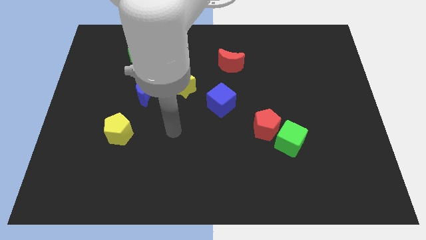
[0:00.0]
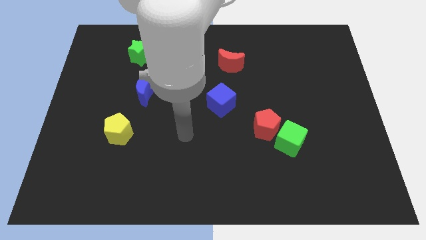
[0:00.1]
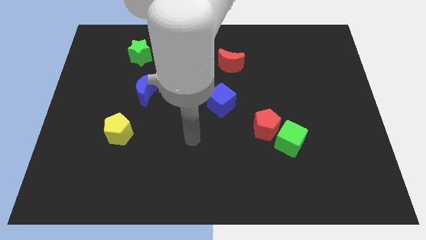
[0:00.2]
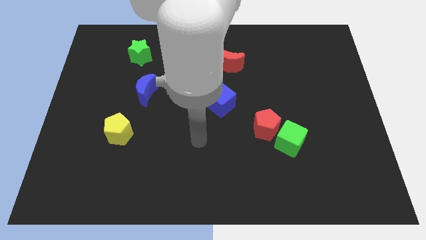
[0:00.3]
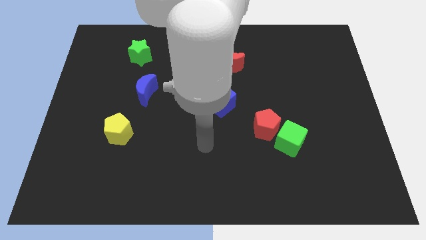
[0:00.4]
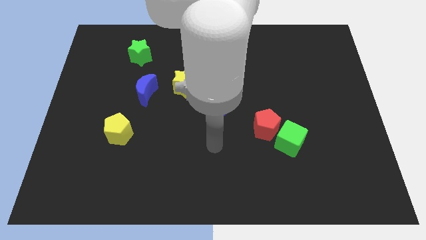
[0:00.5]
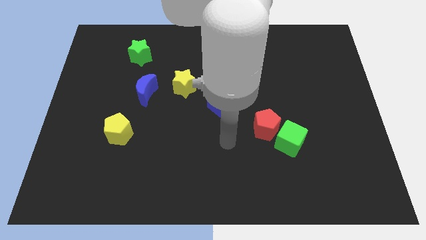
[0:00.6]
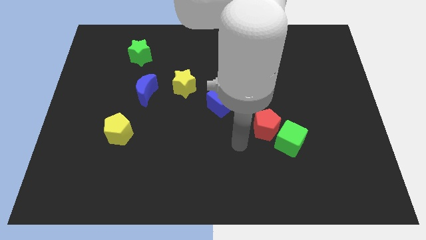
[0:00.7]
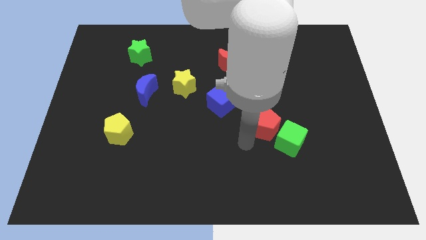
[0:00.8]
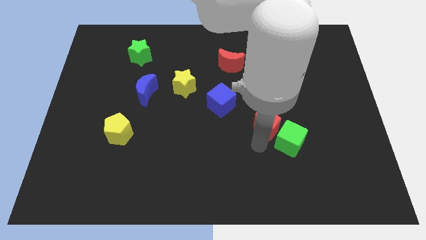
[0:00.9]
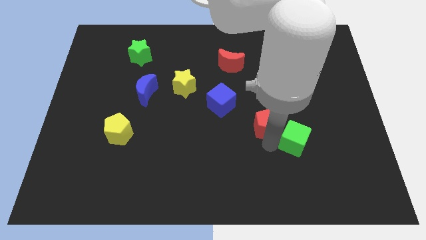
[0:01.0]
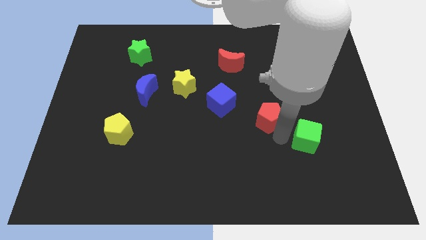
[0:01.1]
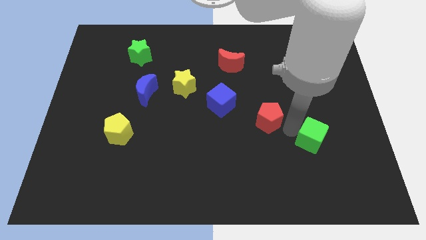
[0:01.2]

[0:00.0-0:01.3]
move the red pentagon away from the green cube

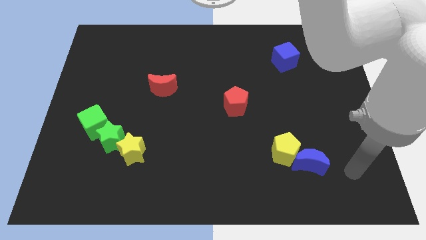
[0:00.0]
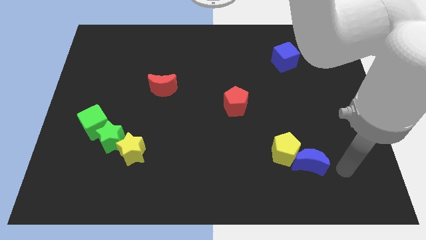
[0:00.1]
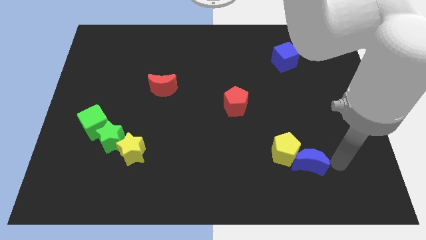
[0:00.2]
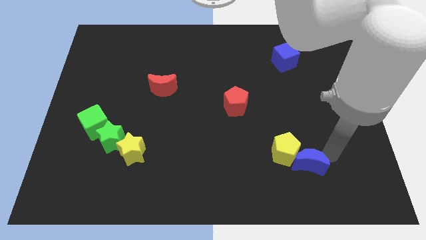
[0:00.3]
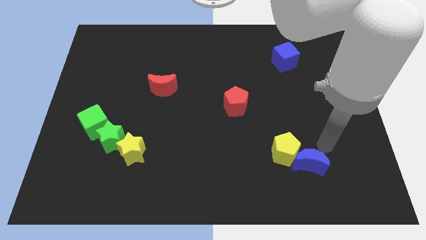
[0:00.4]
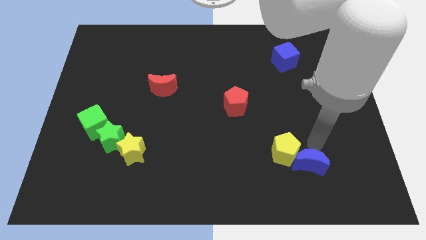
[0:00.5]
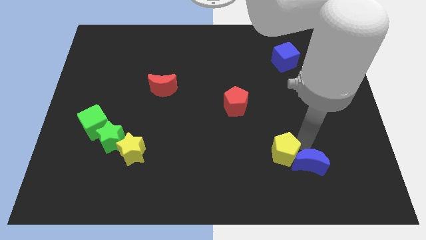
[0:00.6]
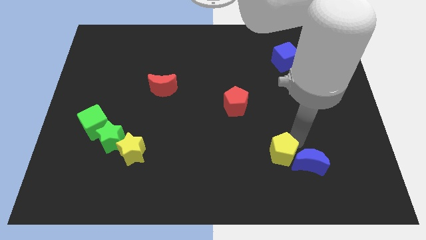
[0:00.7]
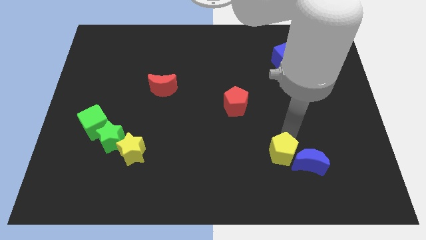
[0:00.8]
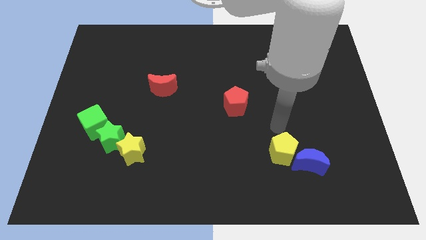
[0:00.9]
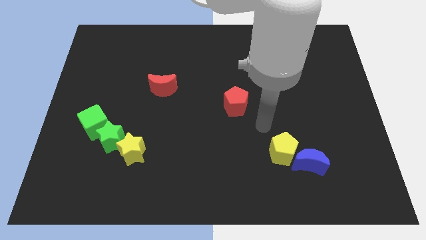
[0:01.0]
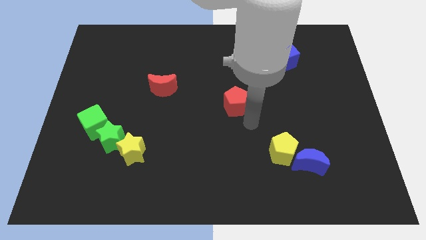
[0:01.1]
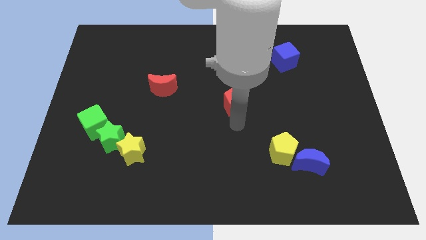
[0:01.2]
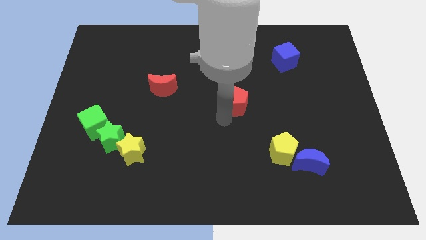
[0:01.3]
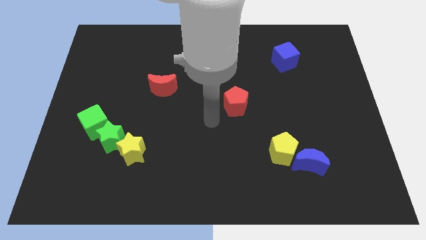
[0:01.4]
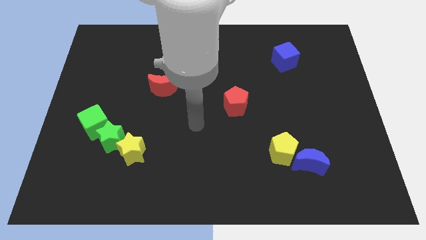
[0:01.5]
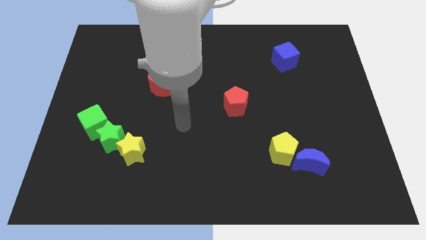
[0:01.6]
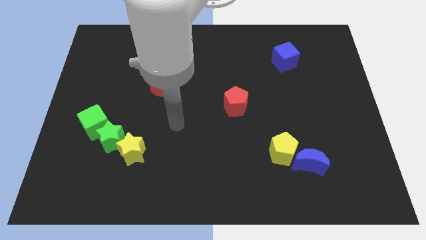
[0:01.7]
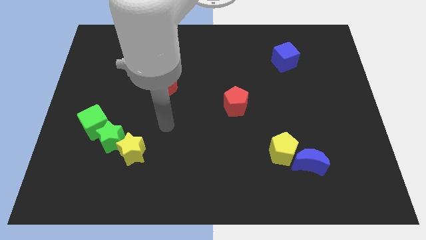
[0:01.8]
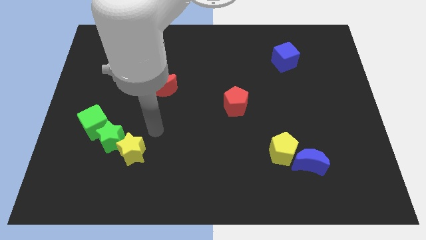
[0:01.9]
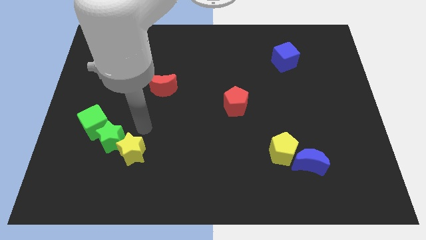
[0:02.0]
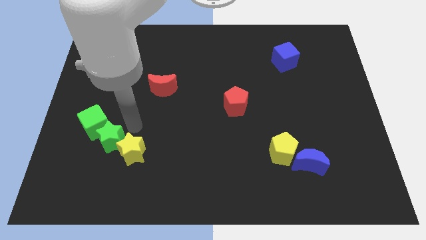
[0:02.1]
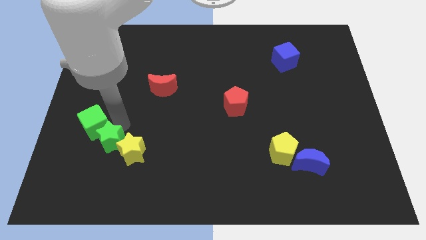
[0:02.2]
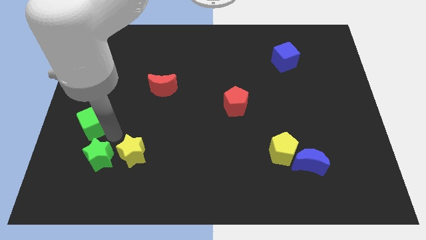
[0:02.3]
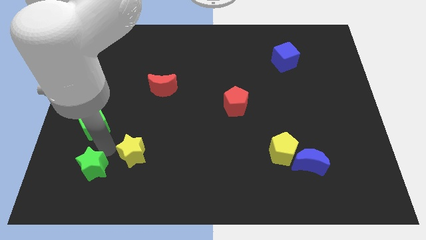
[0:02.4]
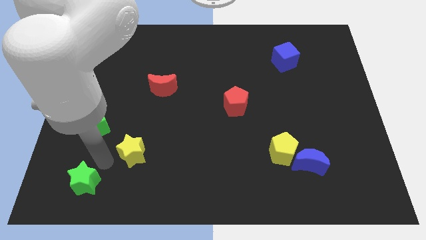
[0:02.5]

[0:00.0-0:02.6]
pull the yellow star apart from the green star

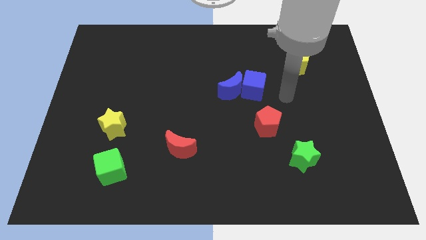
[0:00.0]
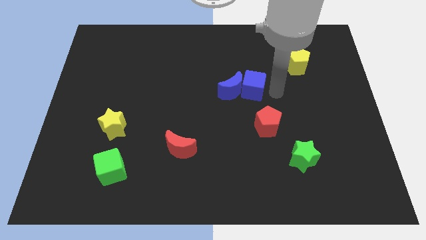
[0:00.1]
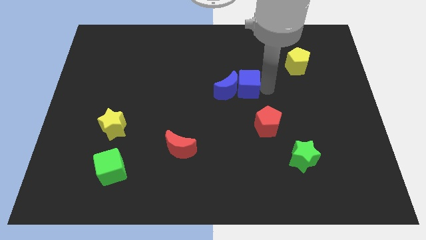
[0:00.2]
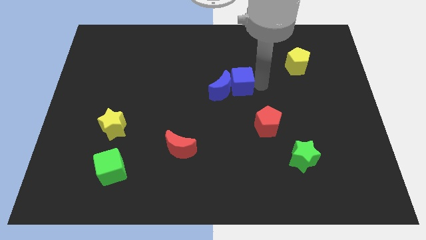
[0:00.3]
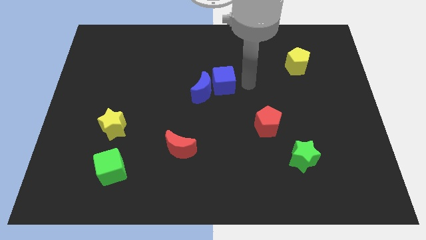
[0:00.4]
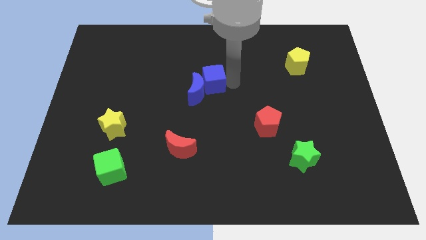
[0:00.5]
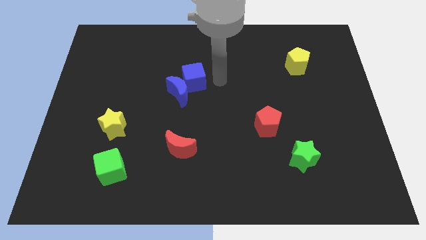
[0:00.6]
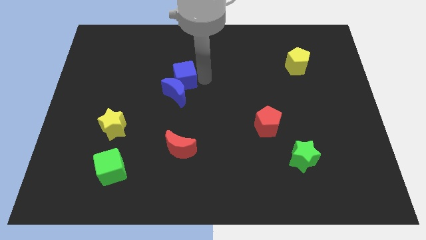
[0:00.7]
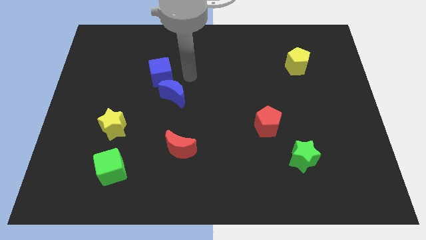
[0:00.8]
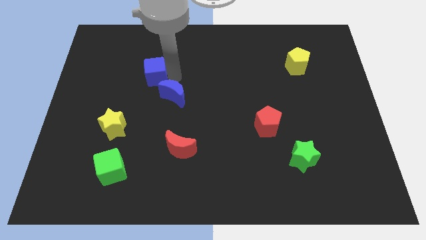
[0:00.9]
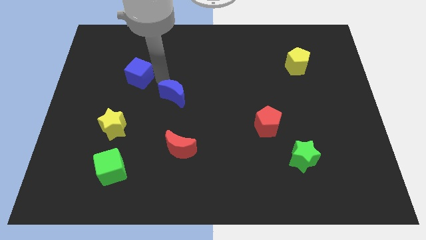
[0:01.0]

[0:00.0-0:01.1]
move the blue moon away from the blue cube

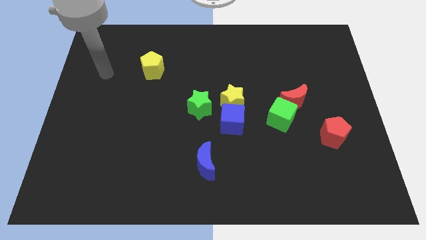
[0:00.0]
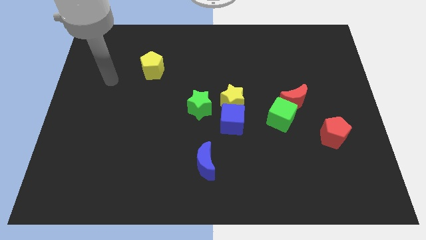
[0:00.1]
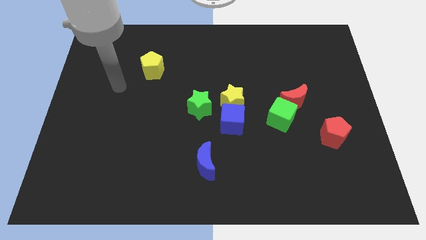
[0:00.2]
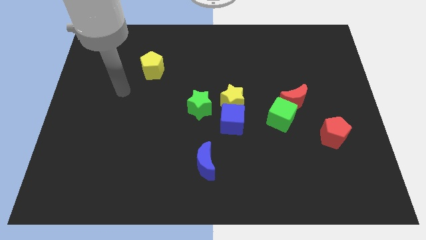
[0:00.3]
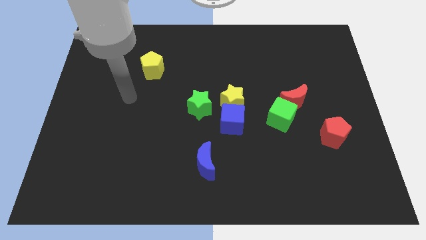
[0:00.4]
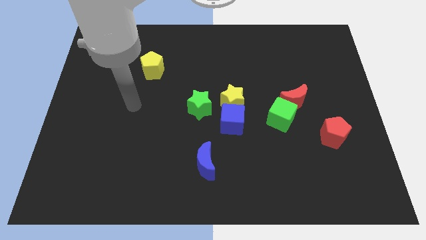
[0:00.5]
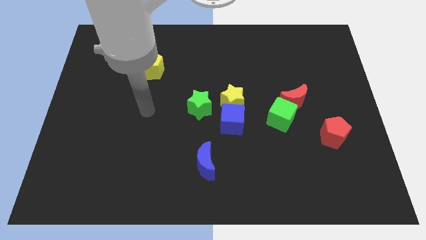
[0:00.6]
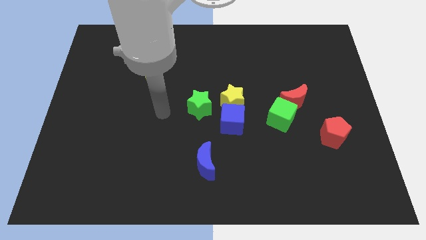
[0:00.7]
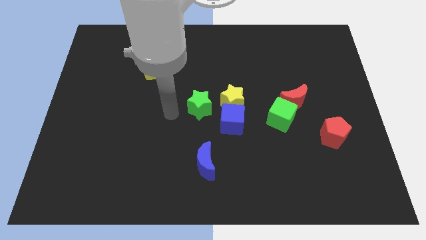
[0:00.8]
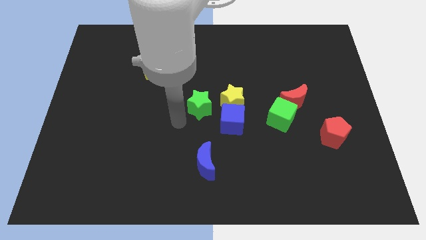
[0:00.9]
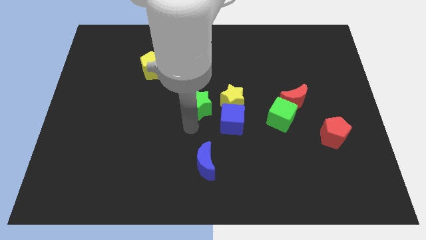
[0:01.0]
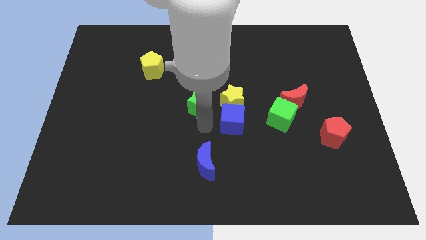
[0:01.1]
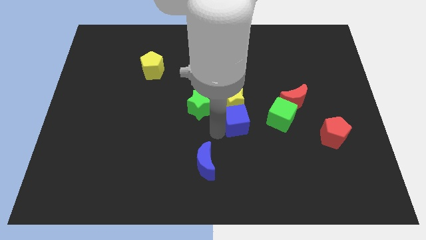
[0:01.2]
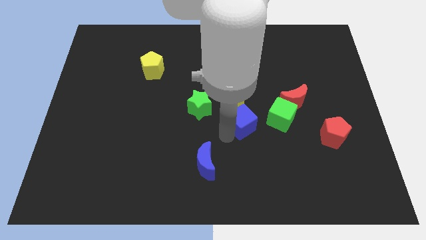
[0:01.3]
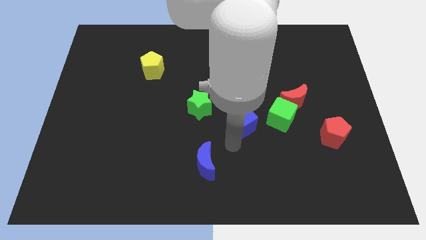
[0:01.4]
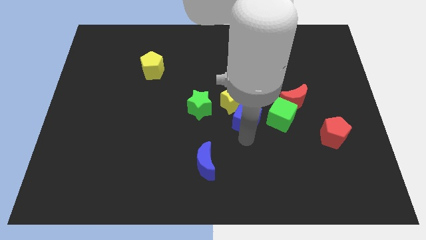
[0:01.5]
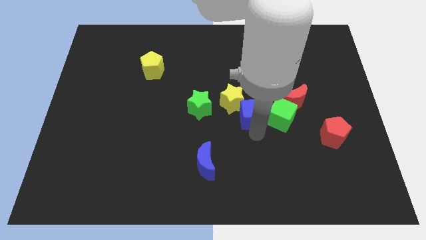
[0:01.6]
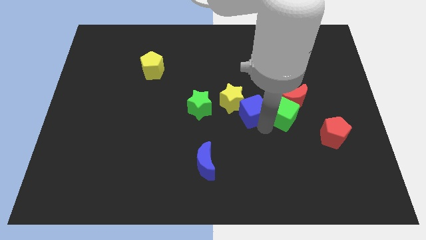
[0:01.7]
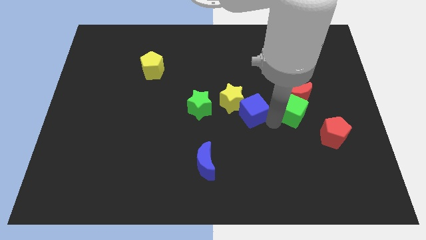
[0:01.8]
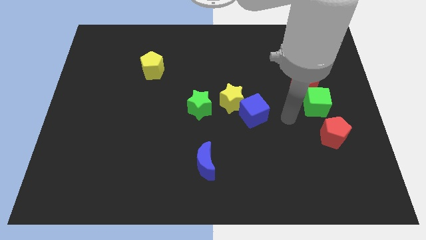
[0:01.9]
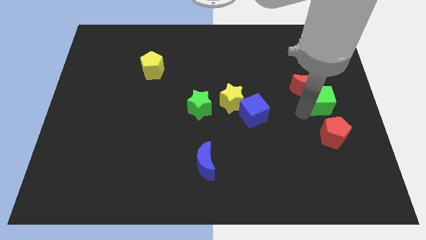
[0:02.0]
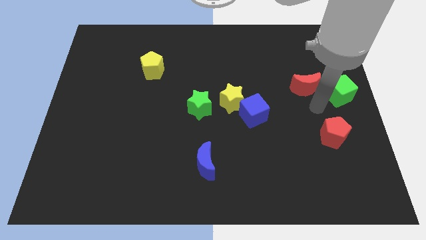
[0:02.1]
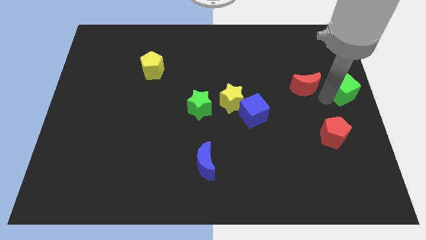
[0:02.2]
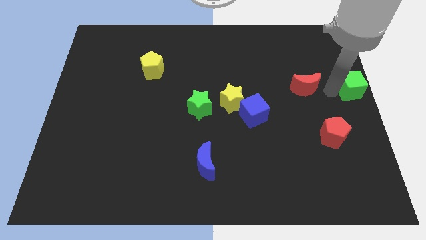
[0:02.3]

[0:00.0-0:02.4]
pull the red moon apart from the green cube

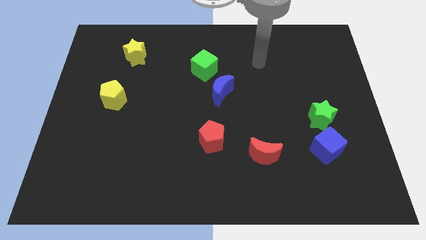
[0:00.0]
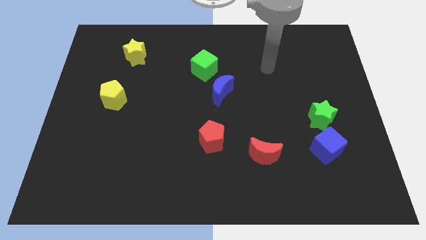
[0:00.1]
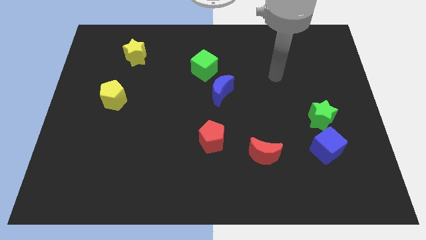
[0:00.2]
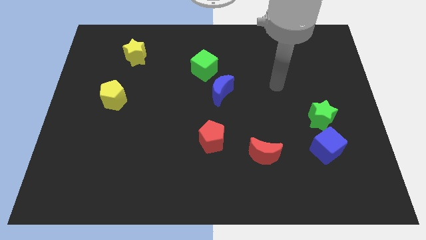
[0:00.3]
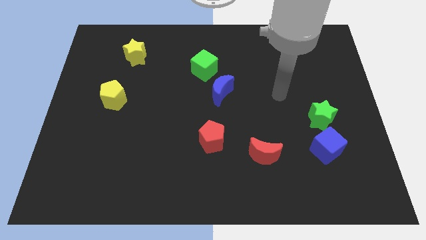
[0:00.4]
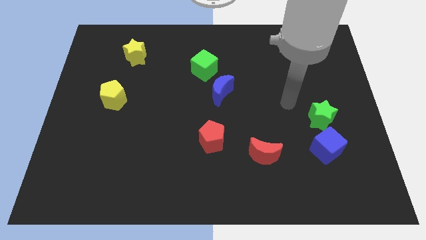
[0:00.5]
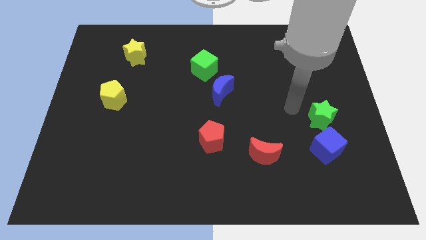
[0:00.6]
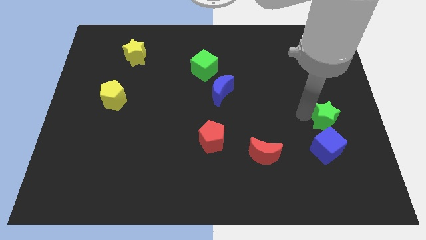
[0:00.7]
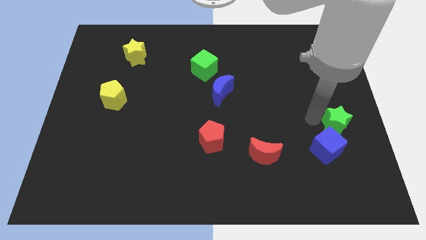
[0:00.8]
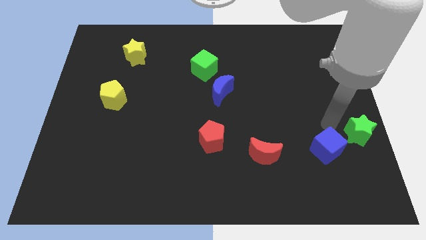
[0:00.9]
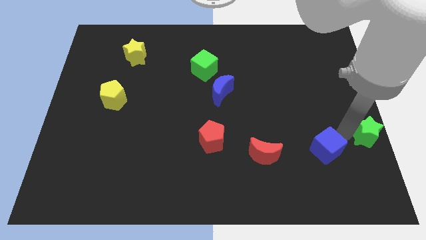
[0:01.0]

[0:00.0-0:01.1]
pull the blue cube apart from the green star

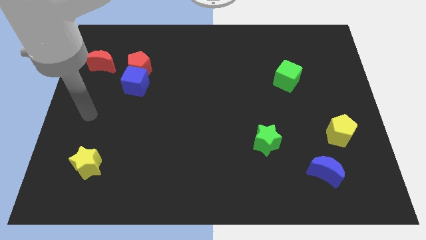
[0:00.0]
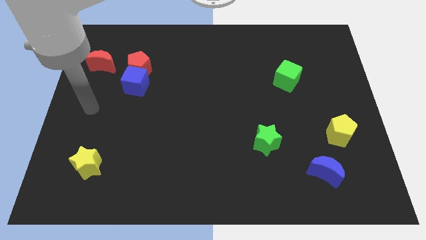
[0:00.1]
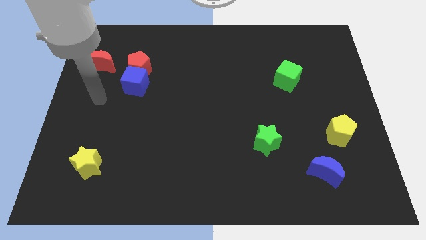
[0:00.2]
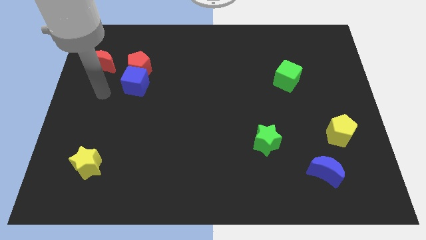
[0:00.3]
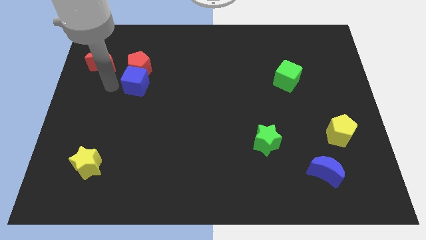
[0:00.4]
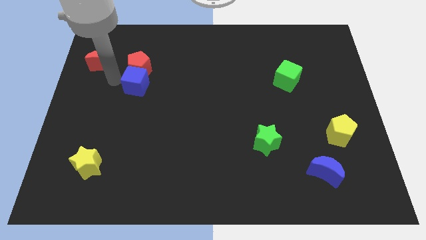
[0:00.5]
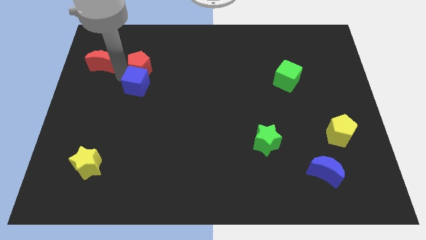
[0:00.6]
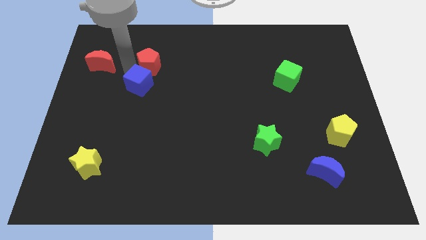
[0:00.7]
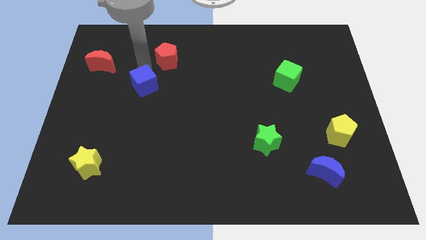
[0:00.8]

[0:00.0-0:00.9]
move the blue cube away from the red pentagon
